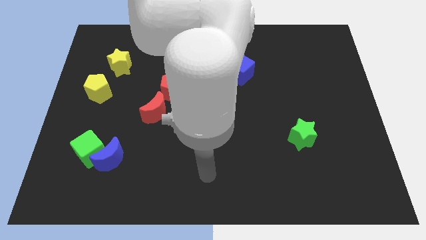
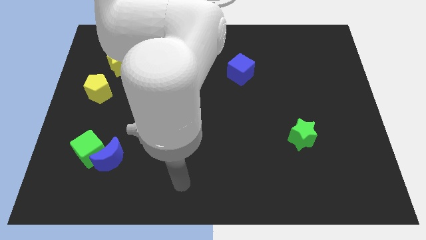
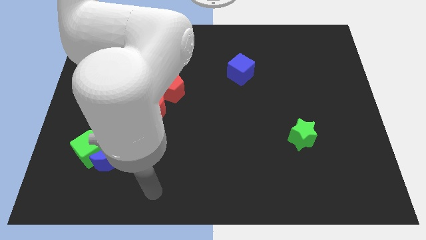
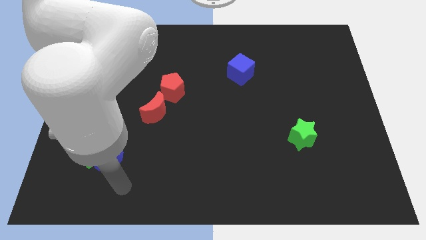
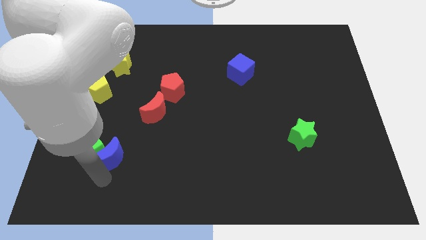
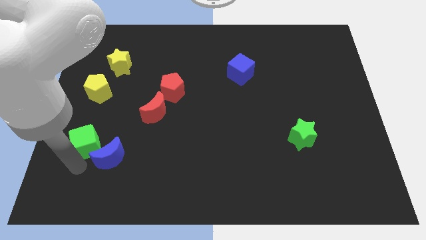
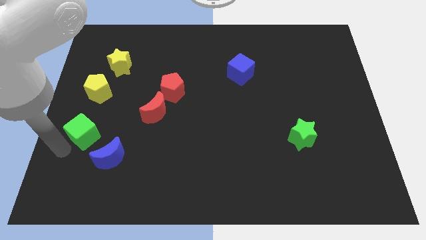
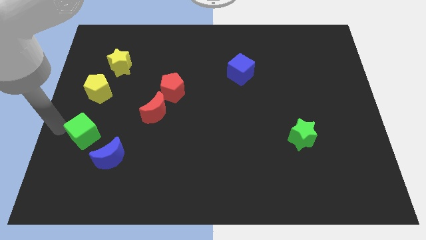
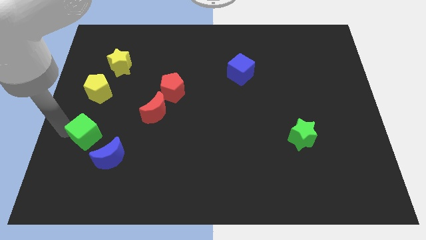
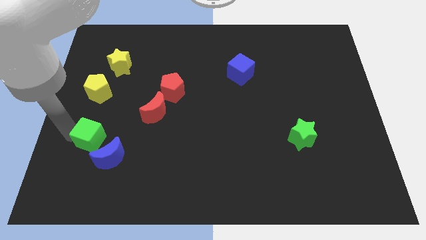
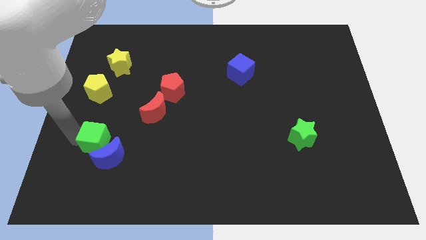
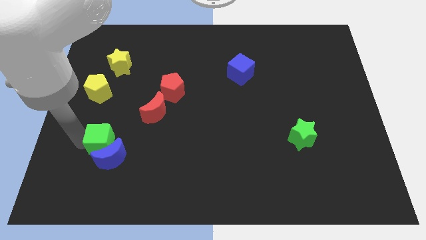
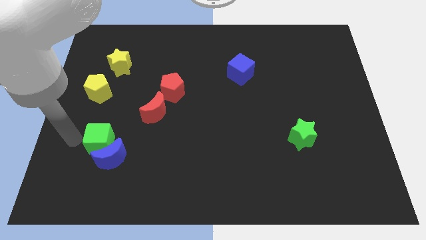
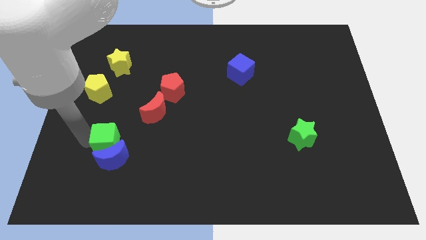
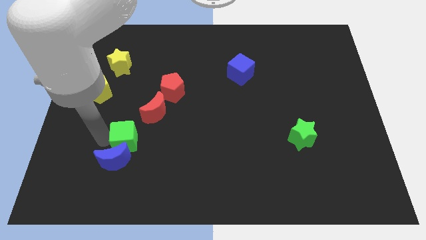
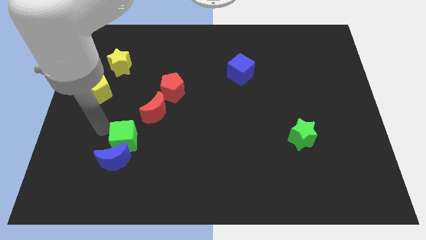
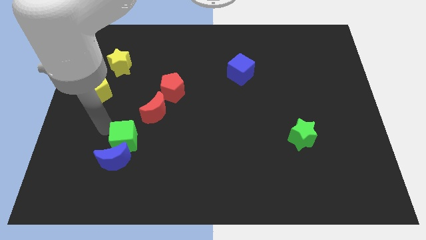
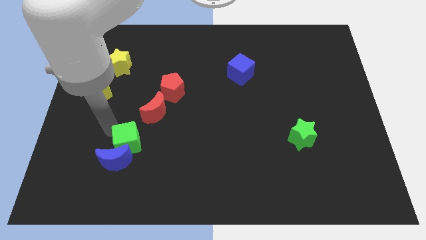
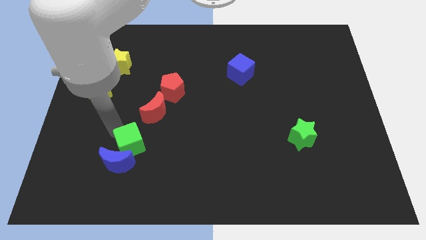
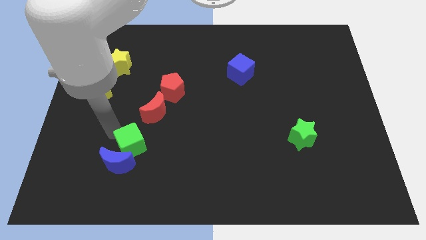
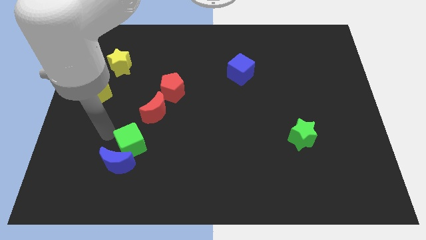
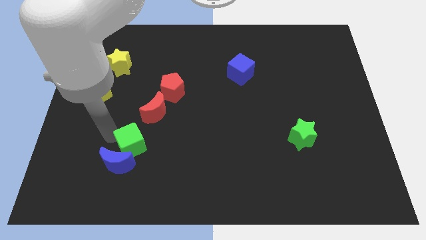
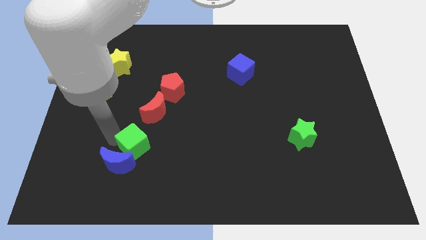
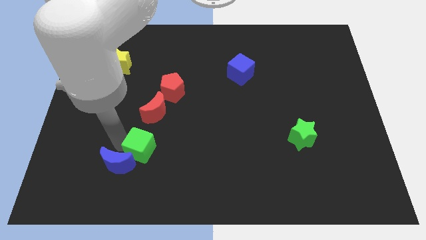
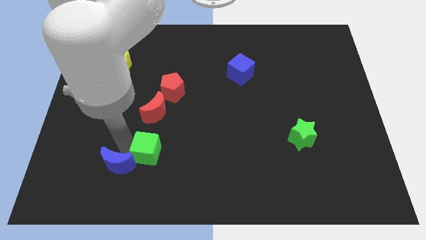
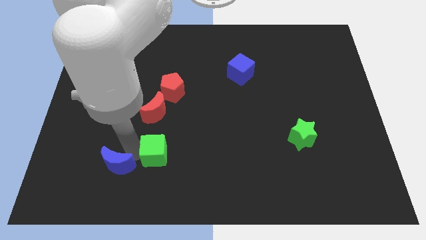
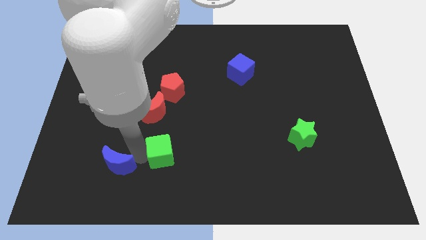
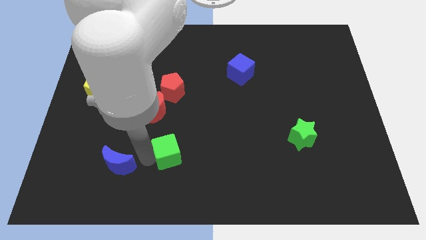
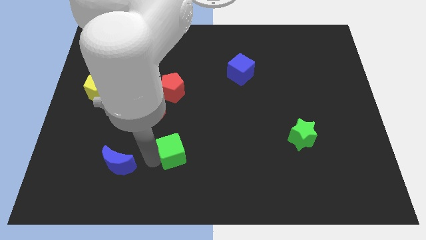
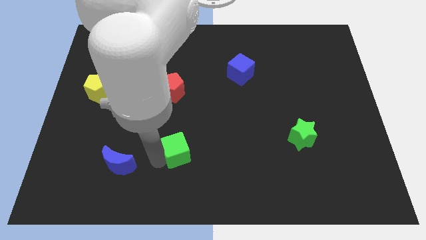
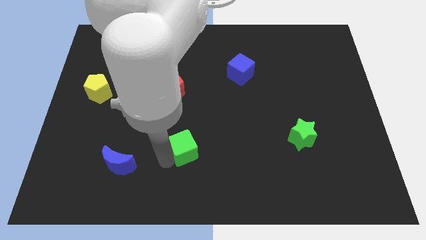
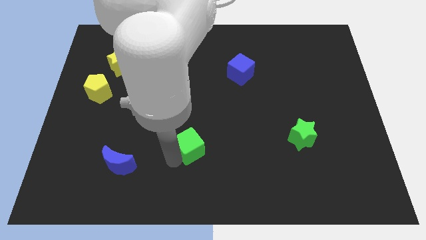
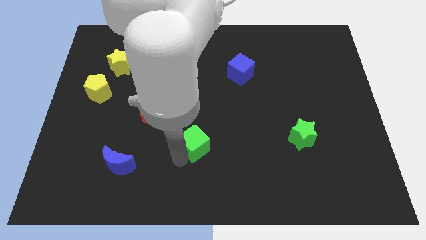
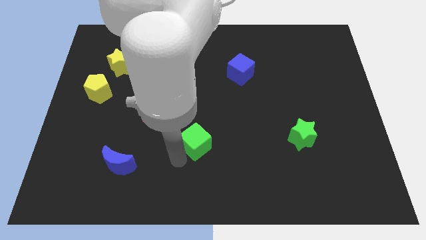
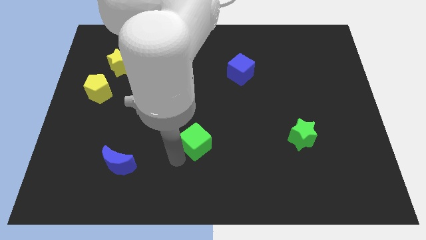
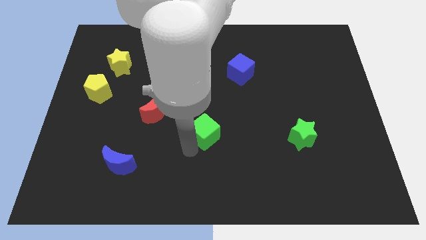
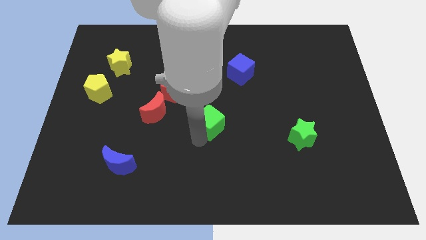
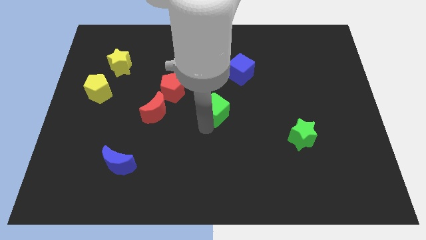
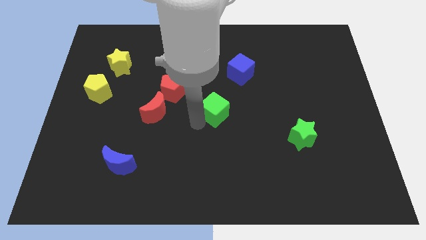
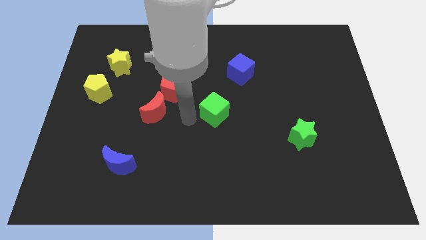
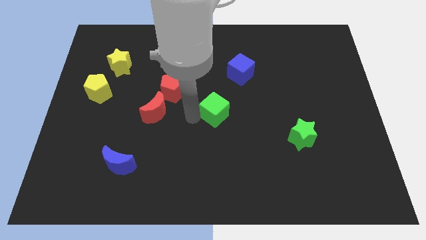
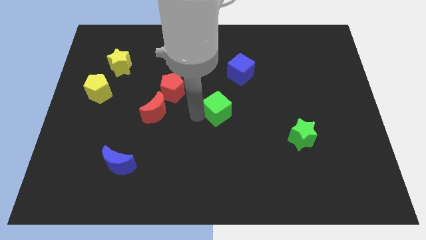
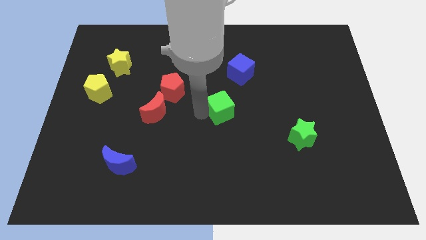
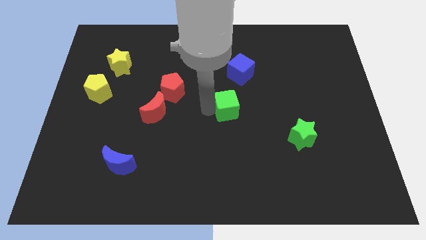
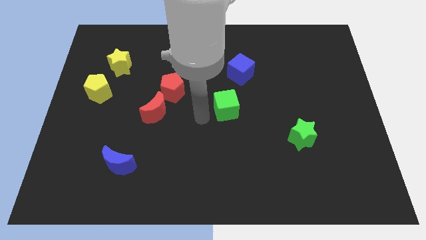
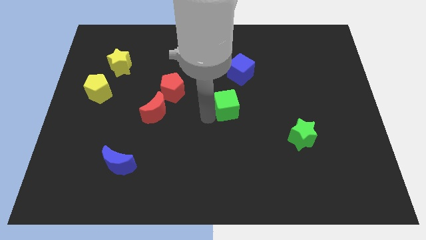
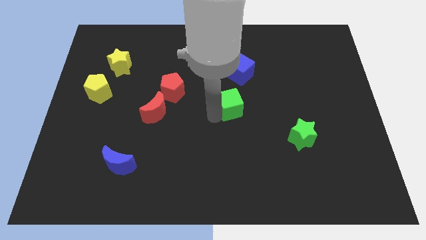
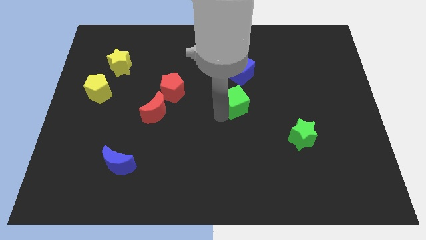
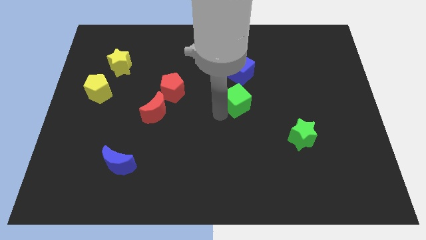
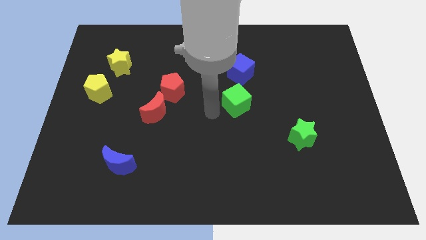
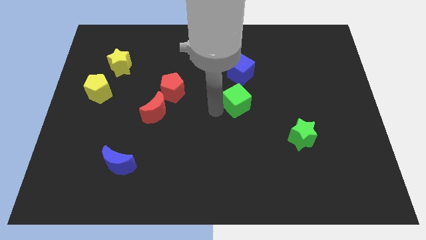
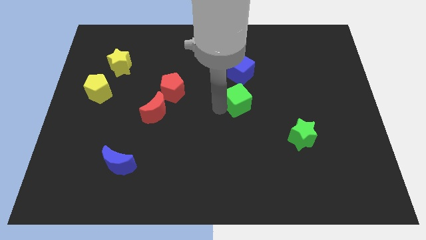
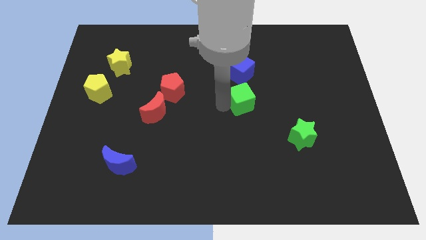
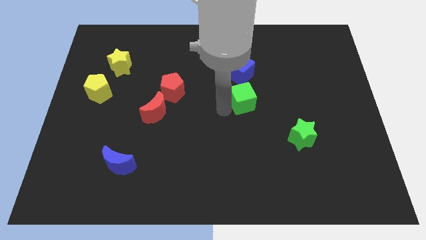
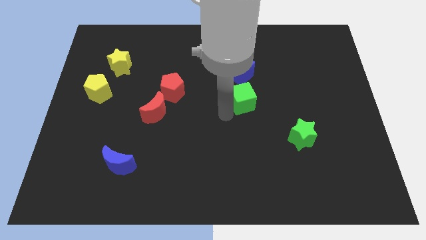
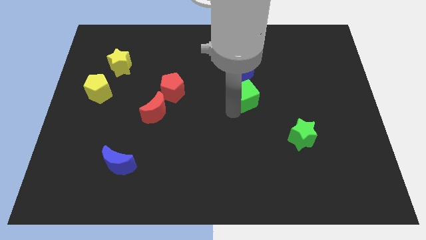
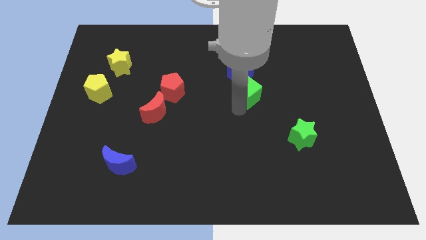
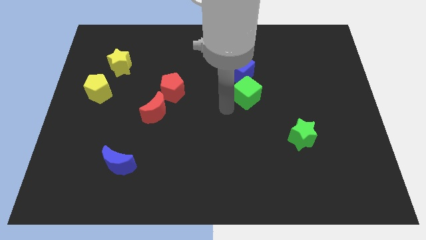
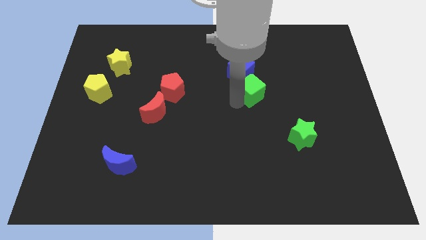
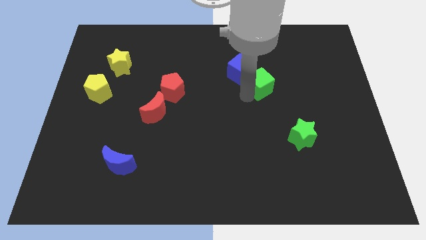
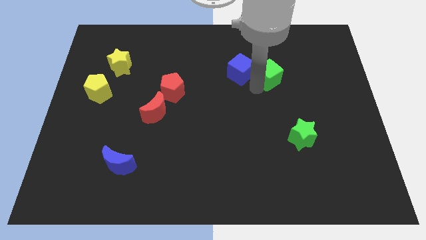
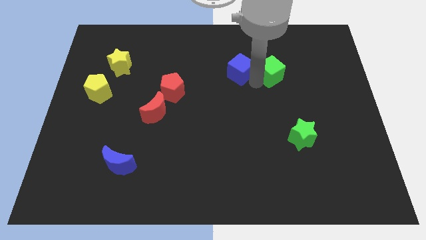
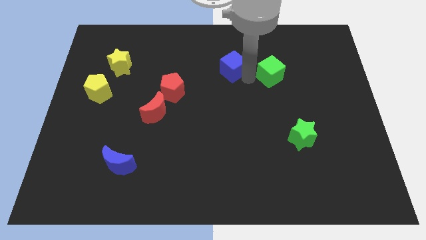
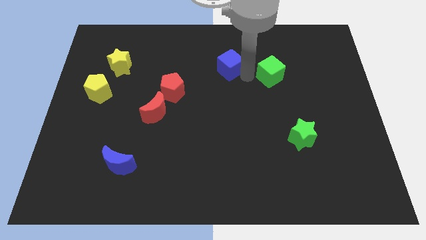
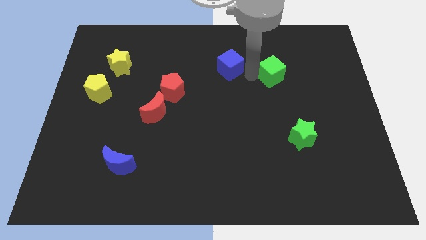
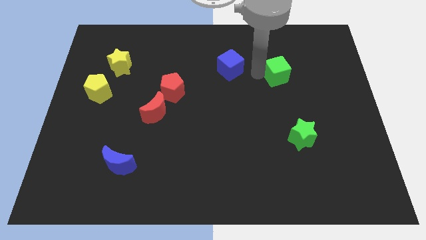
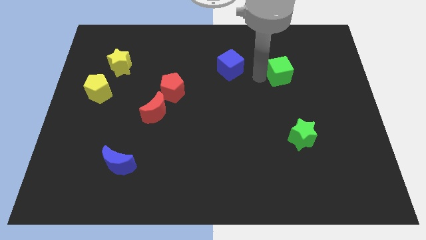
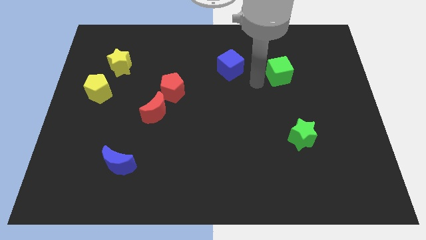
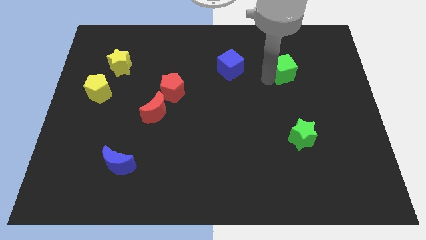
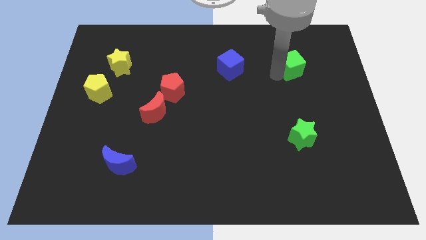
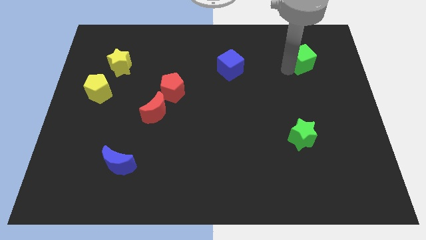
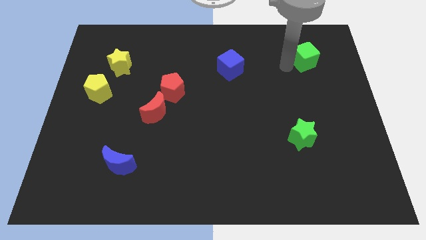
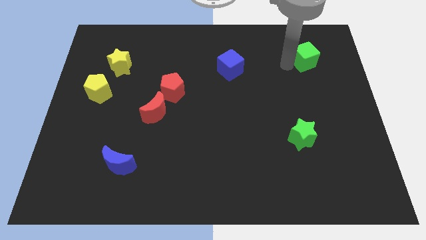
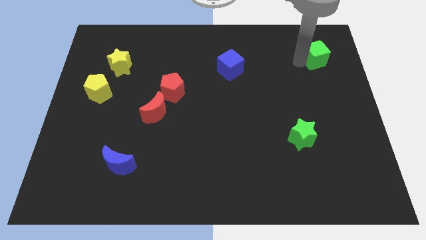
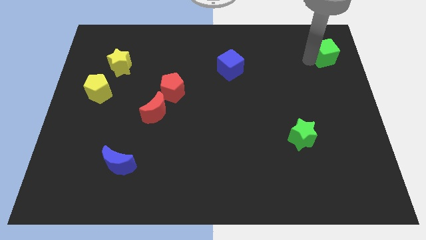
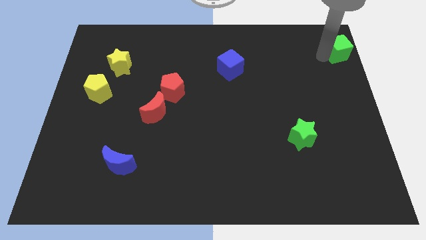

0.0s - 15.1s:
put the green cube to the top right corner
